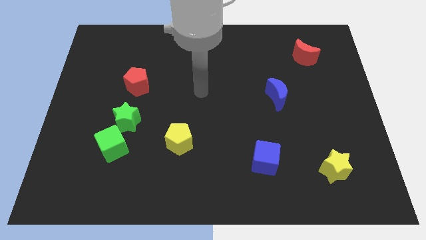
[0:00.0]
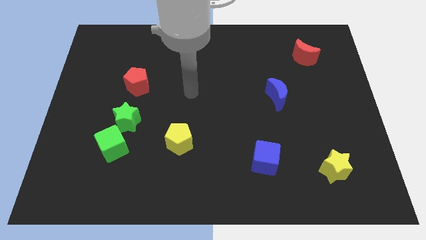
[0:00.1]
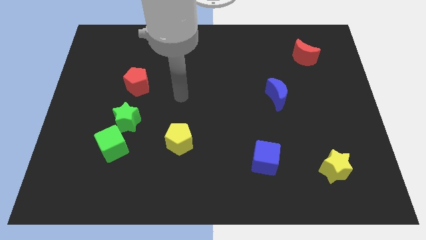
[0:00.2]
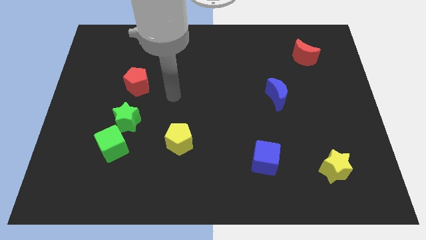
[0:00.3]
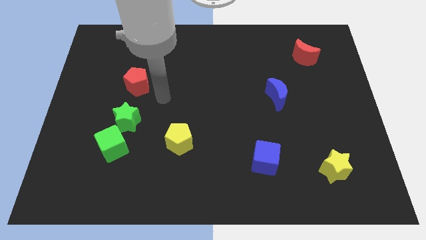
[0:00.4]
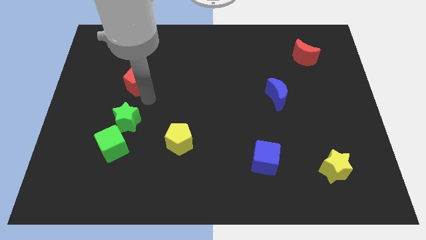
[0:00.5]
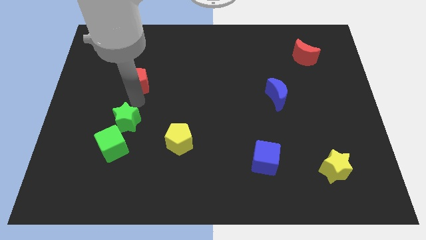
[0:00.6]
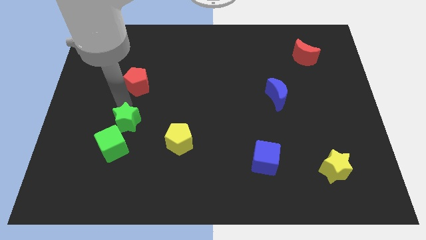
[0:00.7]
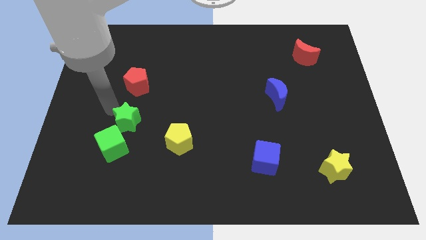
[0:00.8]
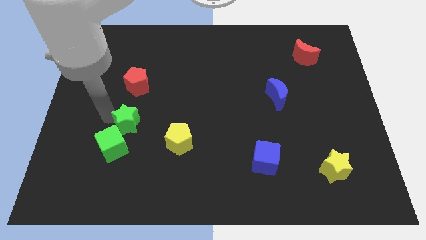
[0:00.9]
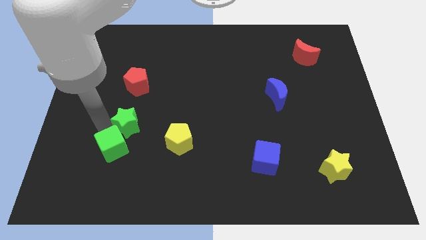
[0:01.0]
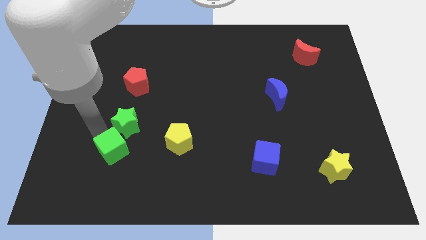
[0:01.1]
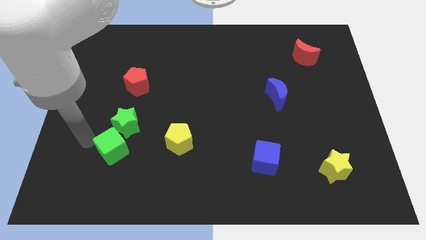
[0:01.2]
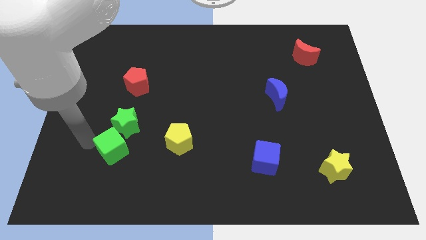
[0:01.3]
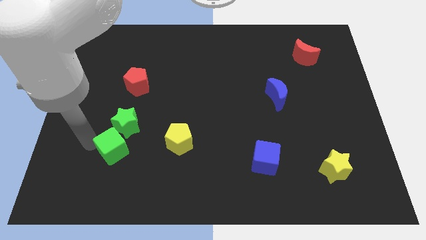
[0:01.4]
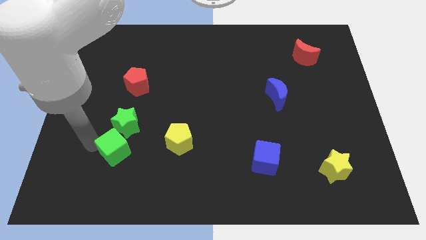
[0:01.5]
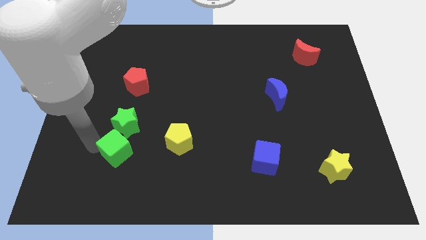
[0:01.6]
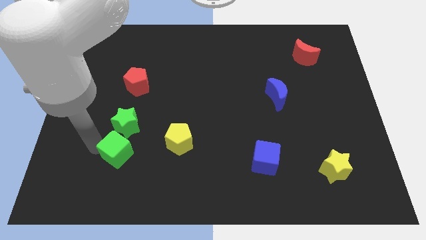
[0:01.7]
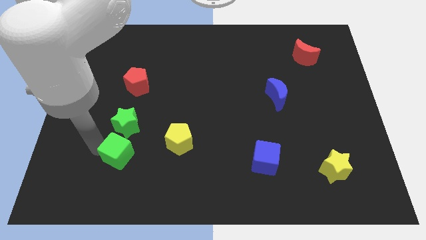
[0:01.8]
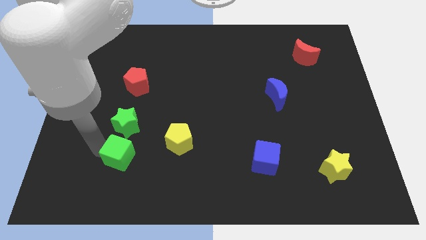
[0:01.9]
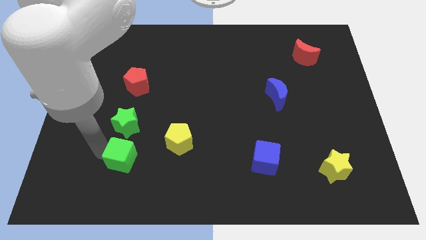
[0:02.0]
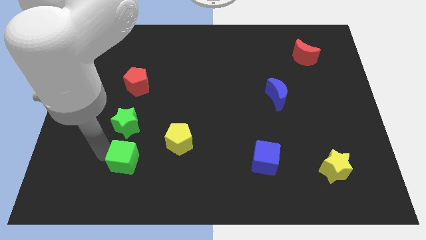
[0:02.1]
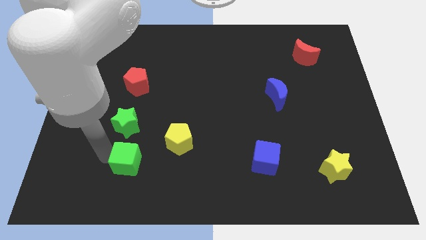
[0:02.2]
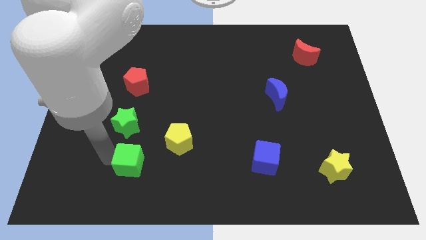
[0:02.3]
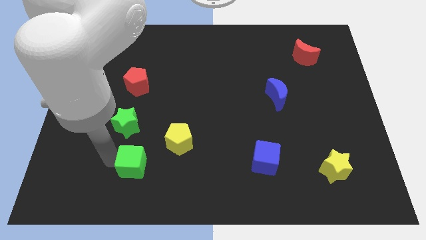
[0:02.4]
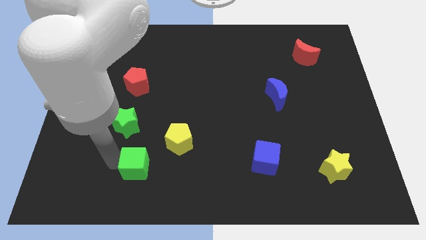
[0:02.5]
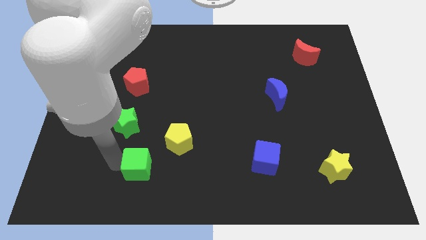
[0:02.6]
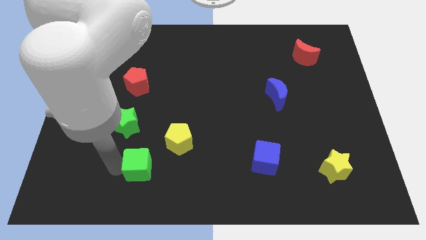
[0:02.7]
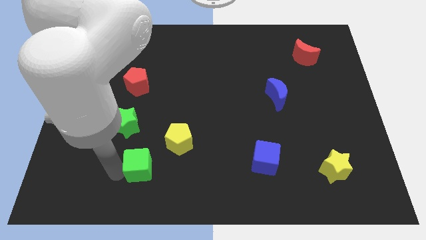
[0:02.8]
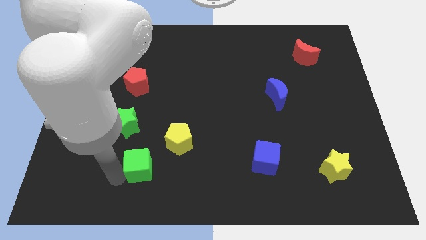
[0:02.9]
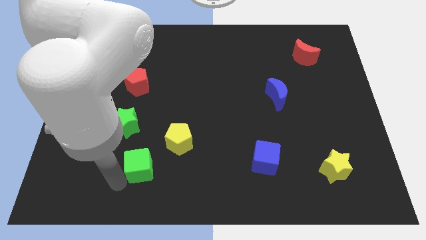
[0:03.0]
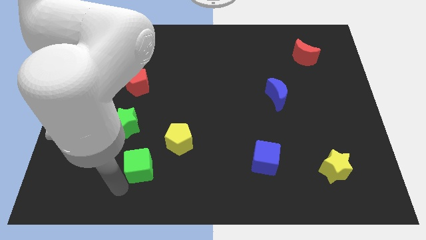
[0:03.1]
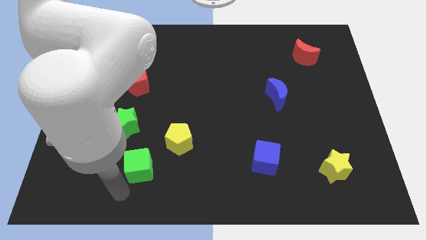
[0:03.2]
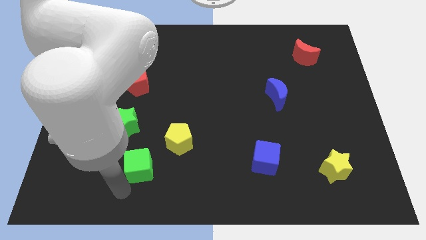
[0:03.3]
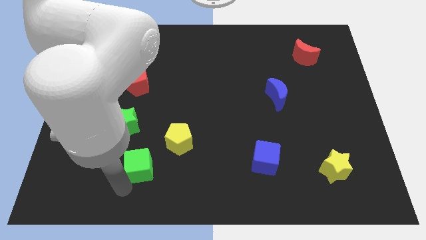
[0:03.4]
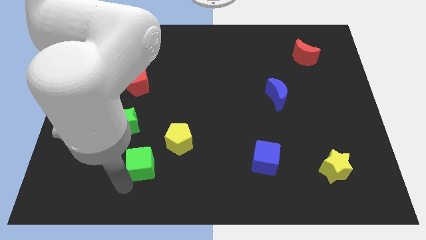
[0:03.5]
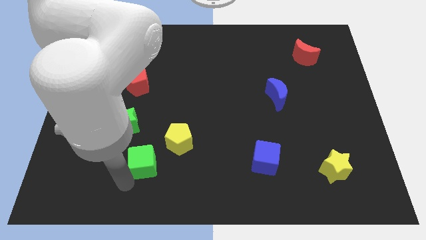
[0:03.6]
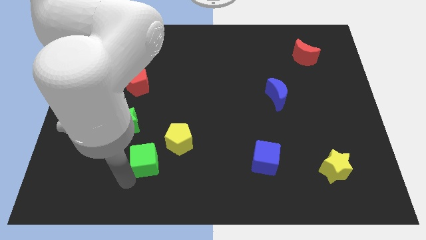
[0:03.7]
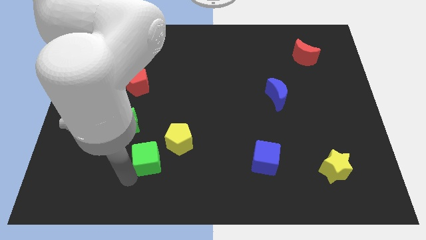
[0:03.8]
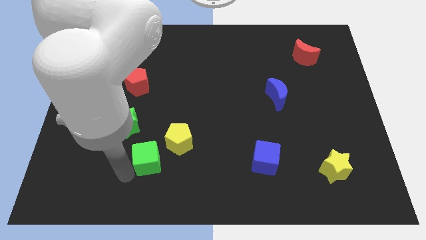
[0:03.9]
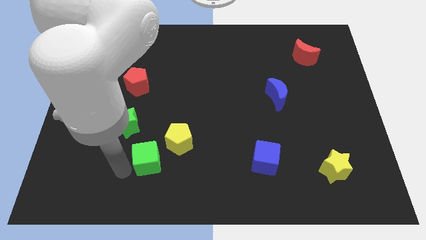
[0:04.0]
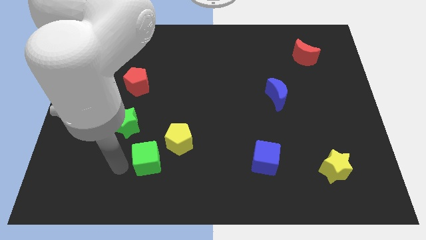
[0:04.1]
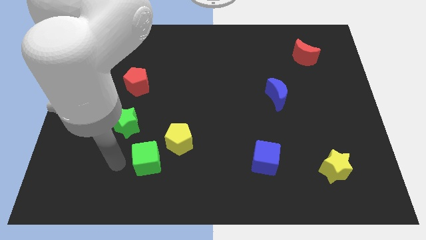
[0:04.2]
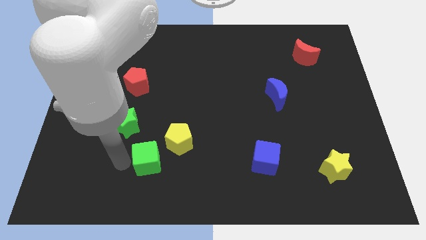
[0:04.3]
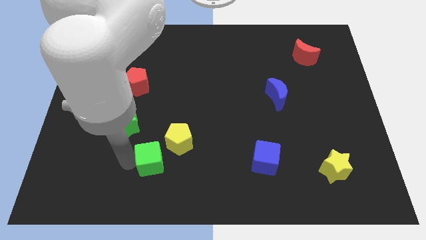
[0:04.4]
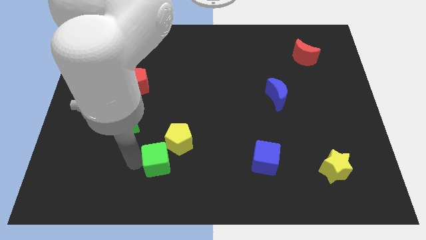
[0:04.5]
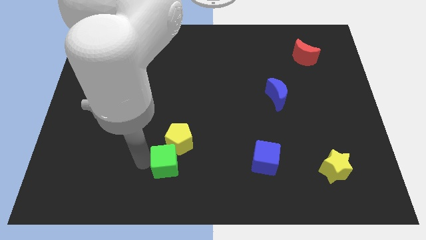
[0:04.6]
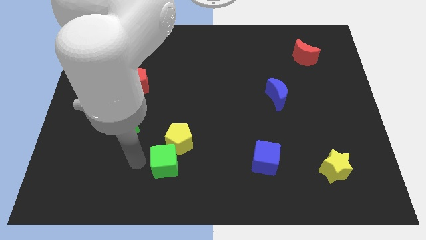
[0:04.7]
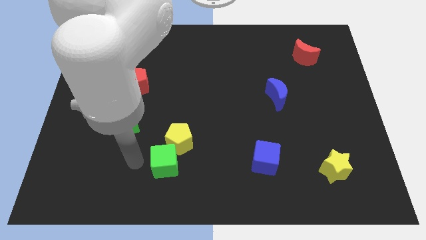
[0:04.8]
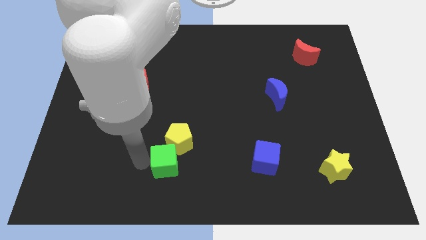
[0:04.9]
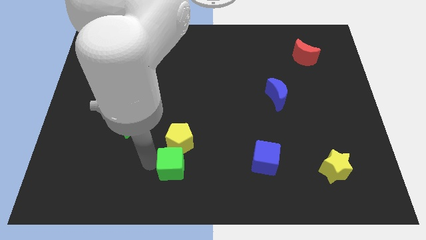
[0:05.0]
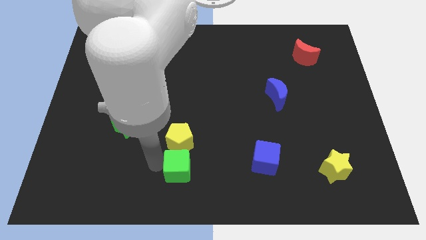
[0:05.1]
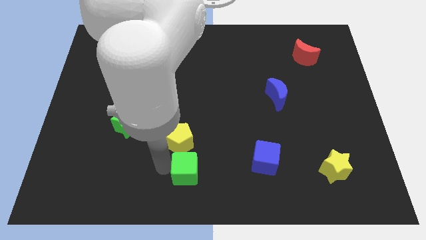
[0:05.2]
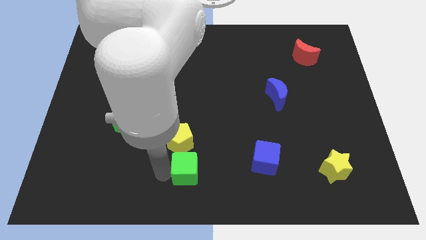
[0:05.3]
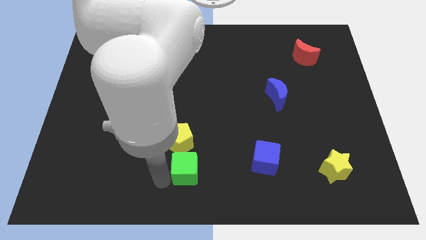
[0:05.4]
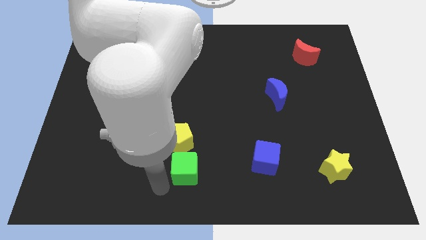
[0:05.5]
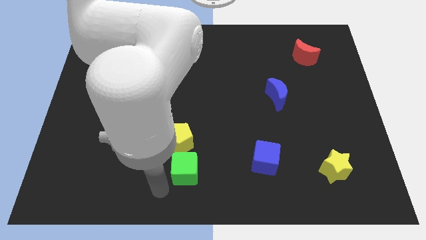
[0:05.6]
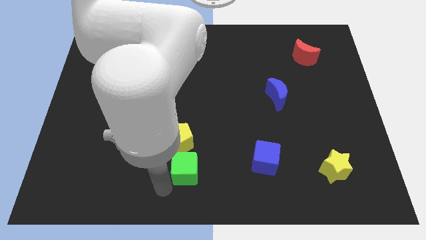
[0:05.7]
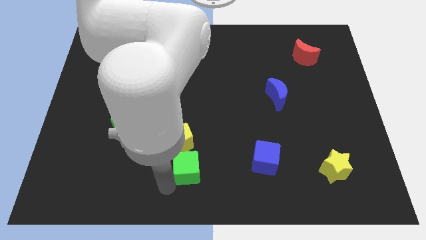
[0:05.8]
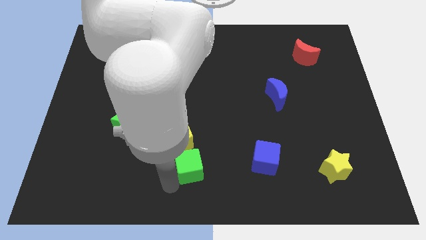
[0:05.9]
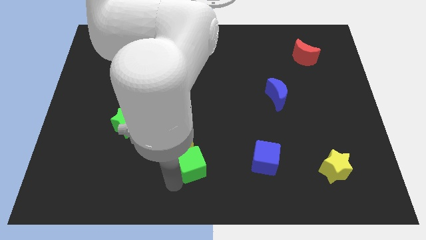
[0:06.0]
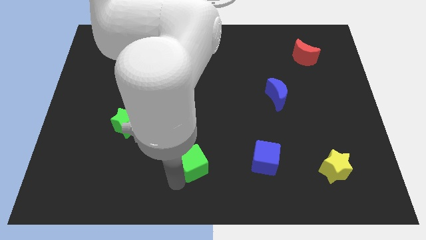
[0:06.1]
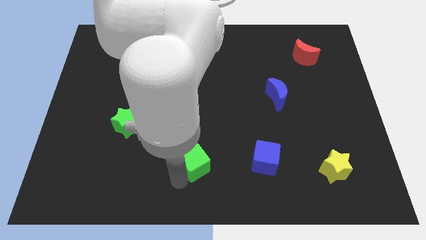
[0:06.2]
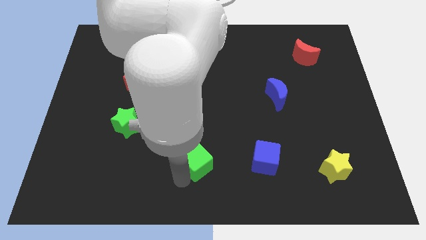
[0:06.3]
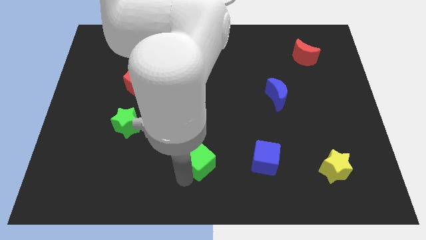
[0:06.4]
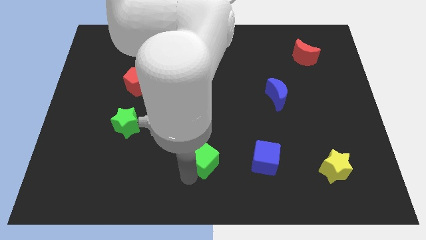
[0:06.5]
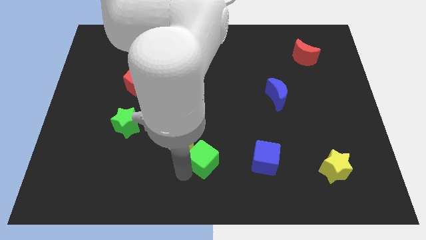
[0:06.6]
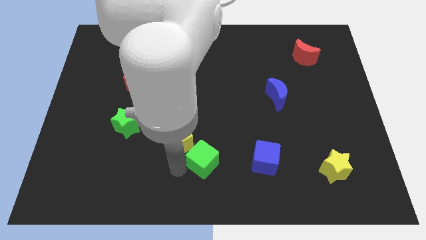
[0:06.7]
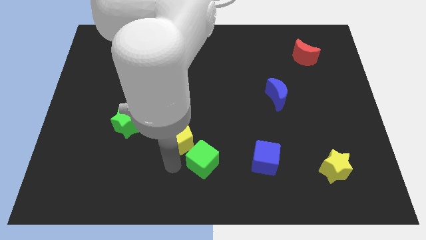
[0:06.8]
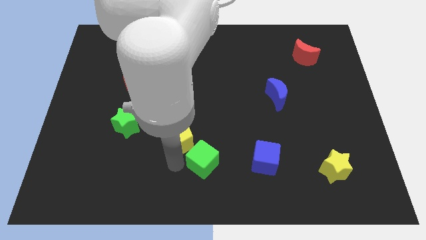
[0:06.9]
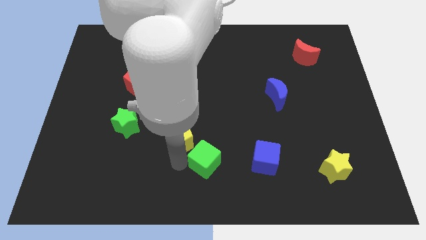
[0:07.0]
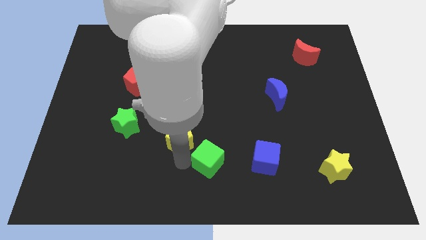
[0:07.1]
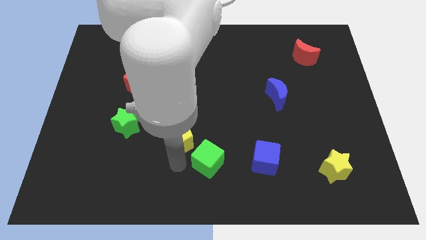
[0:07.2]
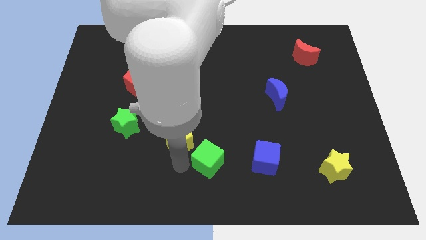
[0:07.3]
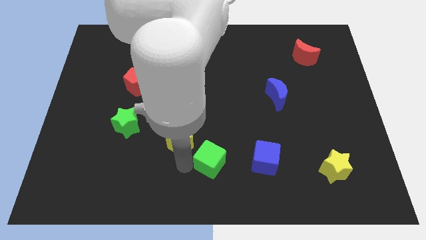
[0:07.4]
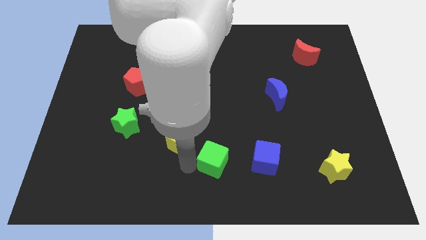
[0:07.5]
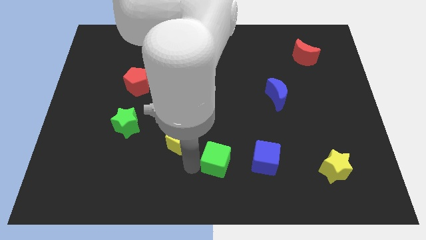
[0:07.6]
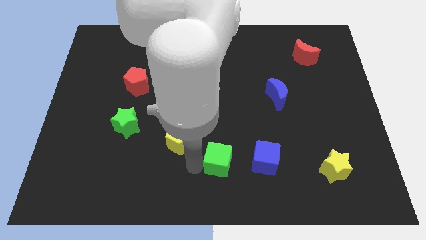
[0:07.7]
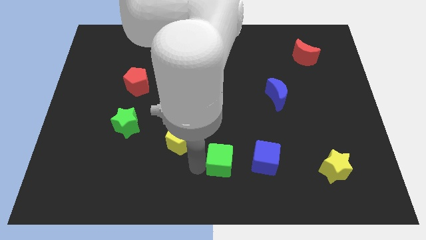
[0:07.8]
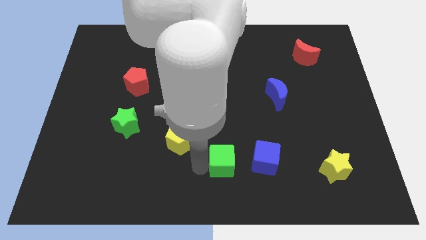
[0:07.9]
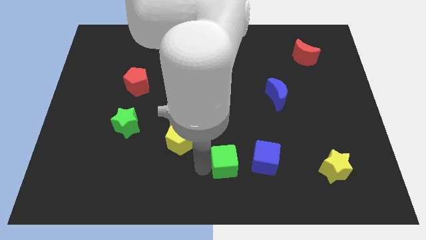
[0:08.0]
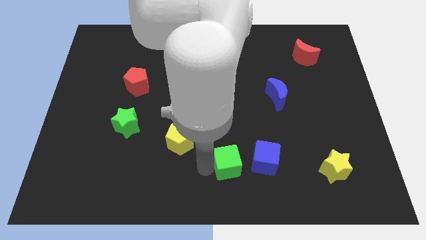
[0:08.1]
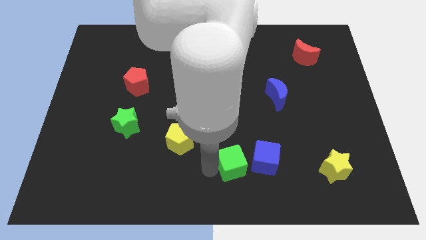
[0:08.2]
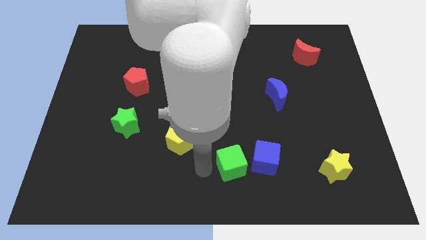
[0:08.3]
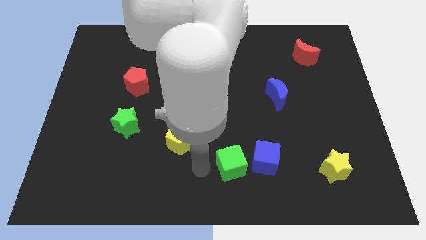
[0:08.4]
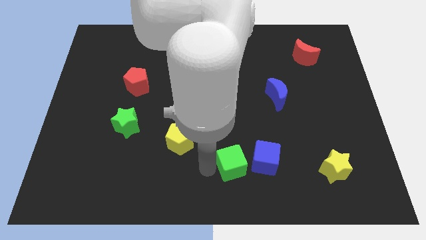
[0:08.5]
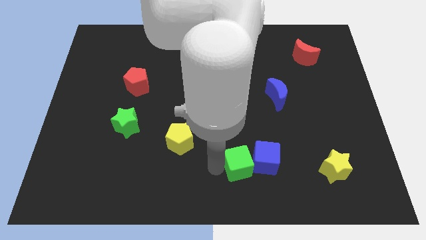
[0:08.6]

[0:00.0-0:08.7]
move the green cube towards the blue cube
